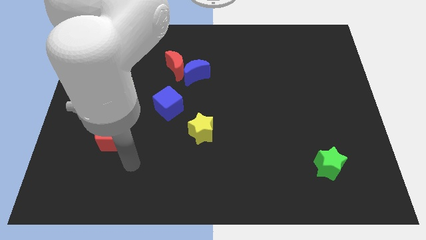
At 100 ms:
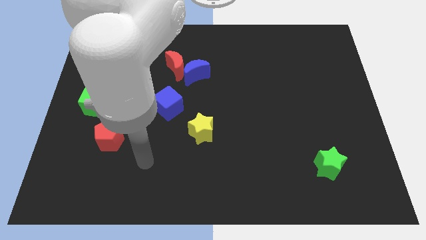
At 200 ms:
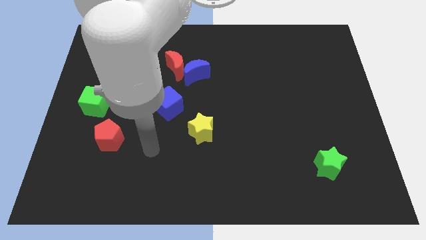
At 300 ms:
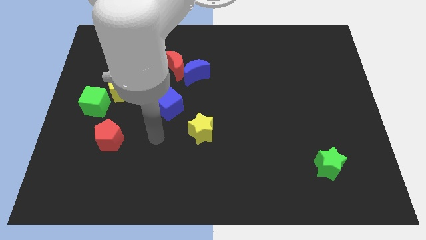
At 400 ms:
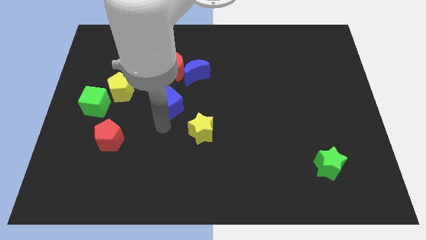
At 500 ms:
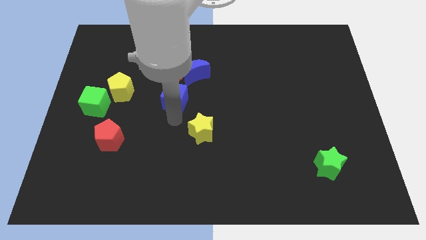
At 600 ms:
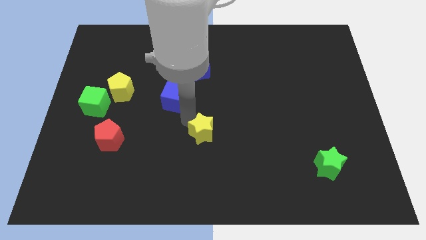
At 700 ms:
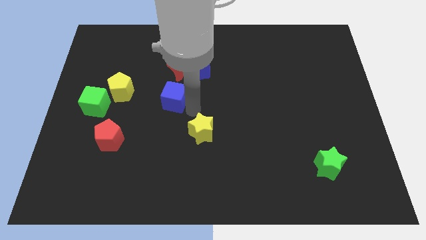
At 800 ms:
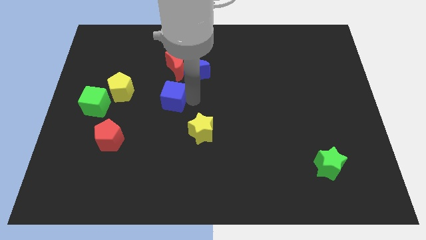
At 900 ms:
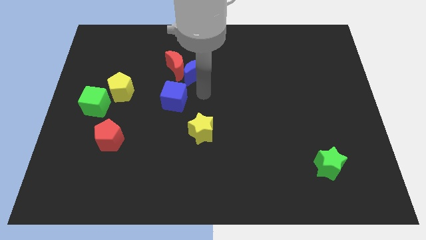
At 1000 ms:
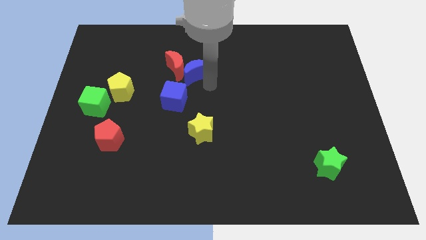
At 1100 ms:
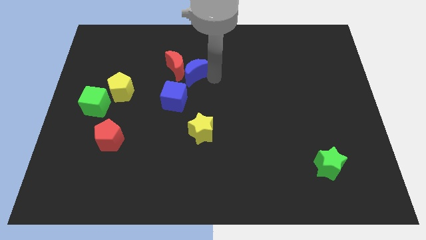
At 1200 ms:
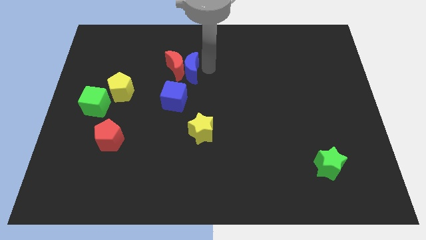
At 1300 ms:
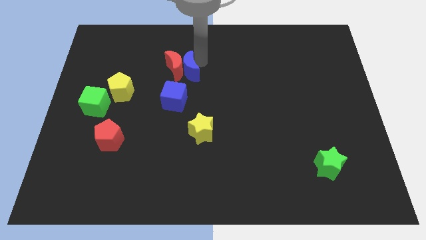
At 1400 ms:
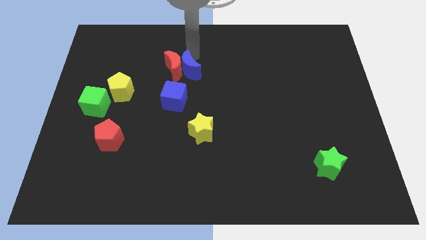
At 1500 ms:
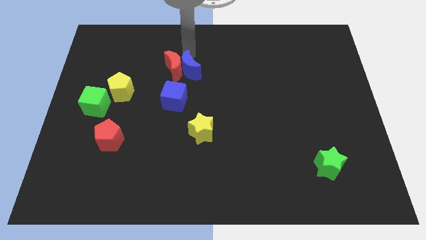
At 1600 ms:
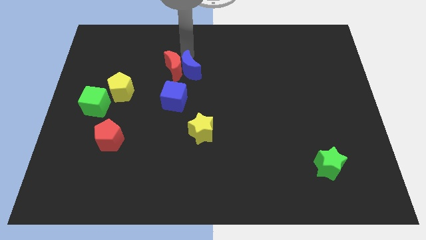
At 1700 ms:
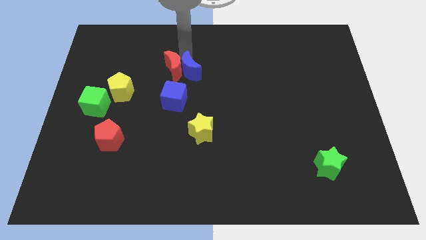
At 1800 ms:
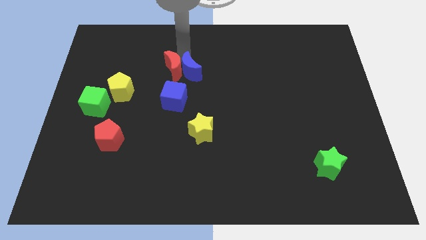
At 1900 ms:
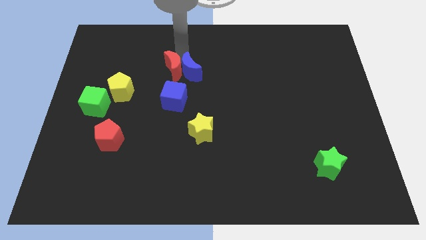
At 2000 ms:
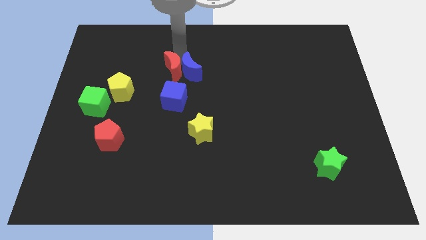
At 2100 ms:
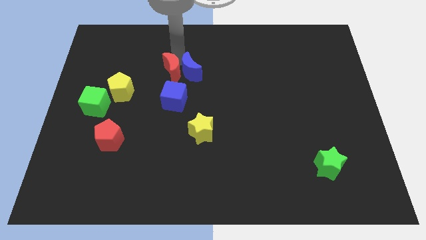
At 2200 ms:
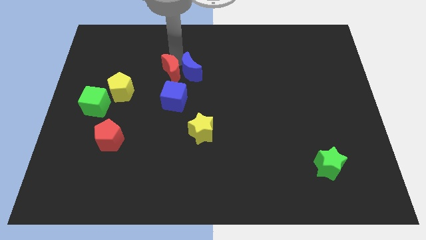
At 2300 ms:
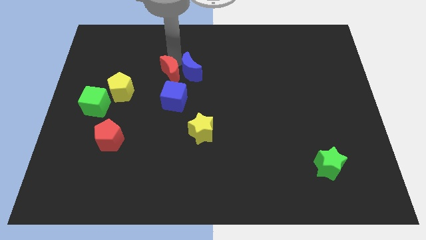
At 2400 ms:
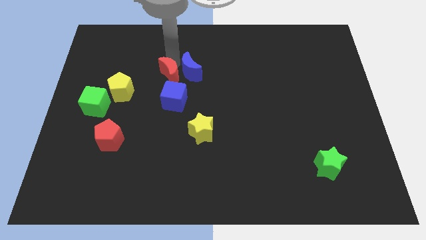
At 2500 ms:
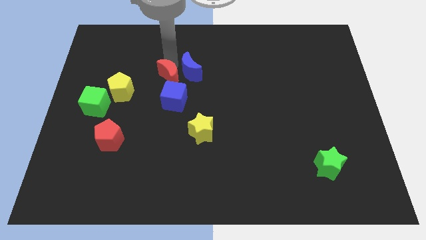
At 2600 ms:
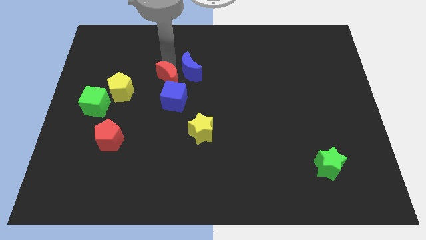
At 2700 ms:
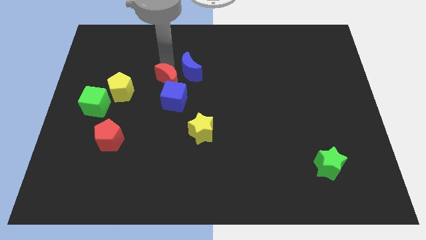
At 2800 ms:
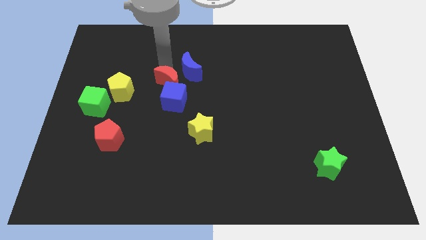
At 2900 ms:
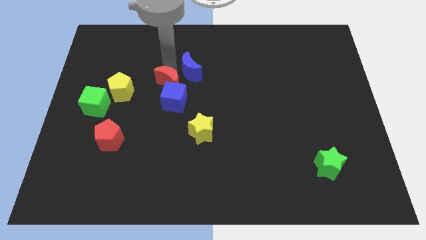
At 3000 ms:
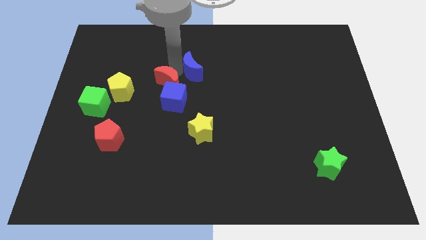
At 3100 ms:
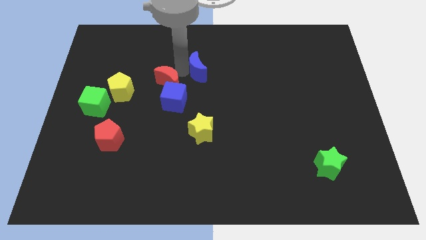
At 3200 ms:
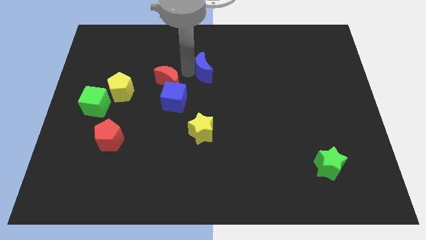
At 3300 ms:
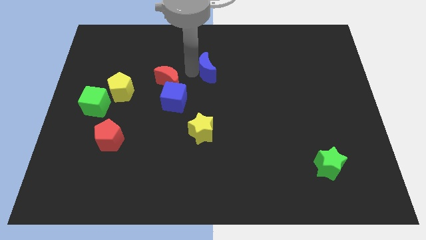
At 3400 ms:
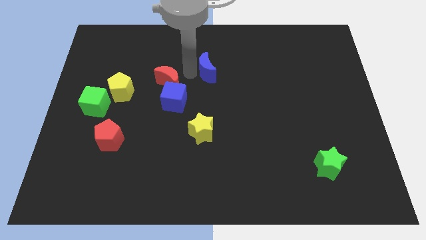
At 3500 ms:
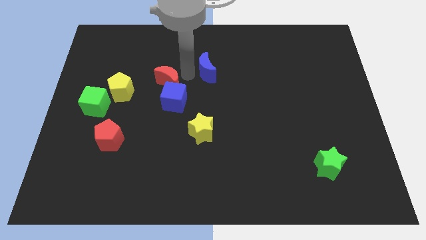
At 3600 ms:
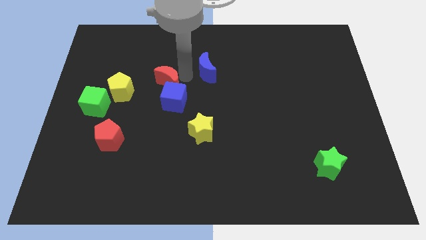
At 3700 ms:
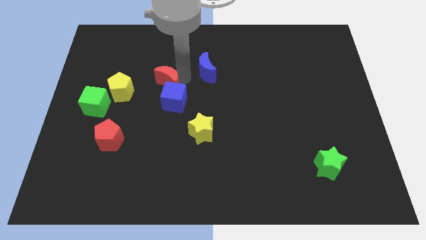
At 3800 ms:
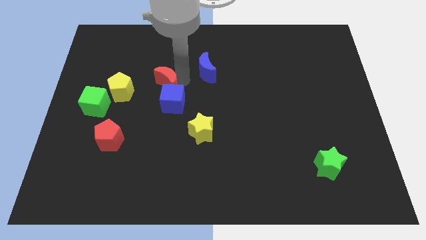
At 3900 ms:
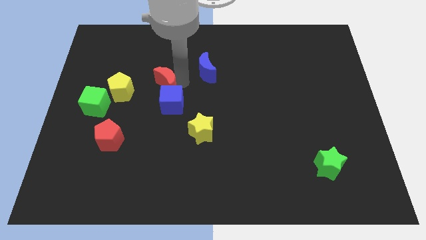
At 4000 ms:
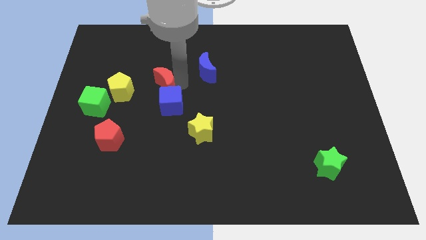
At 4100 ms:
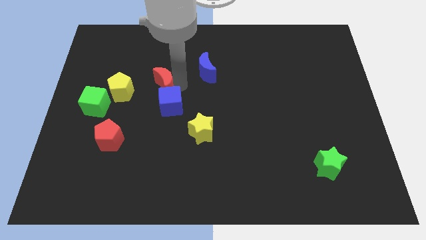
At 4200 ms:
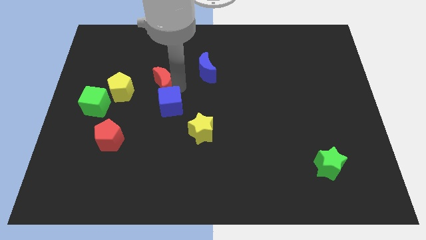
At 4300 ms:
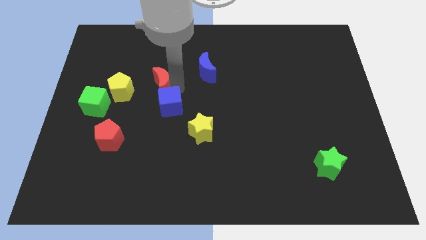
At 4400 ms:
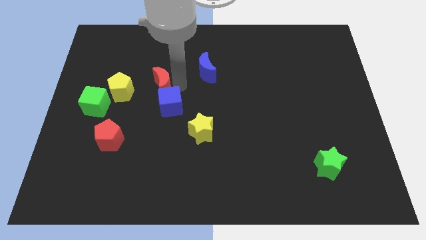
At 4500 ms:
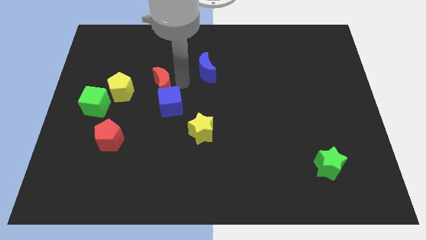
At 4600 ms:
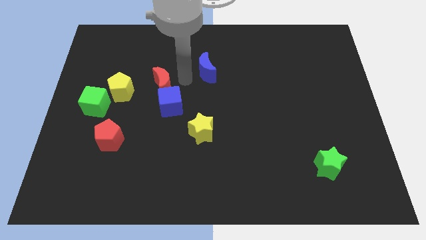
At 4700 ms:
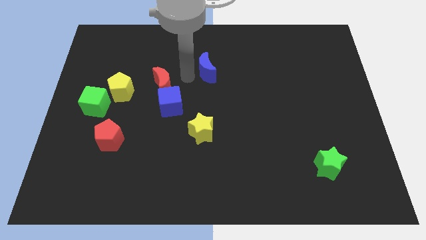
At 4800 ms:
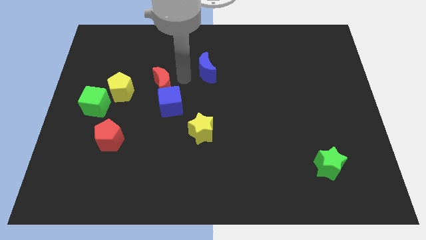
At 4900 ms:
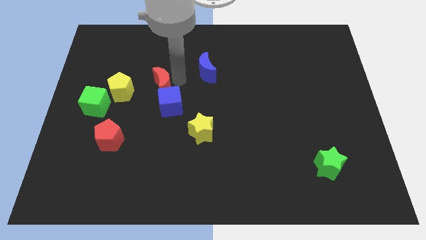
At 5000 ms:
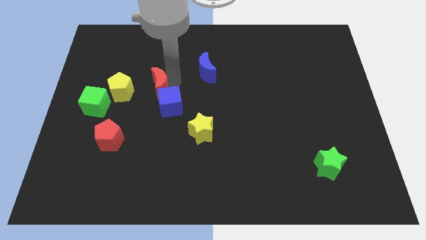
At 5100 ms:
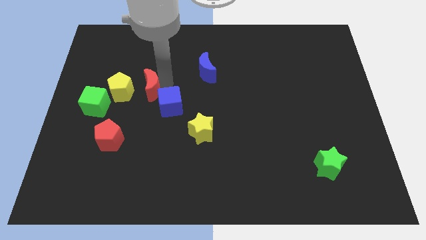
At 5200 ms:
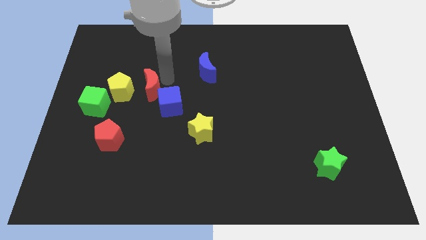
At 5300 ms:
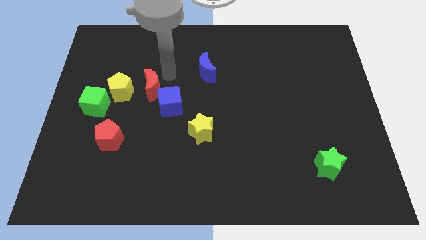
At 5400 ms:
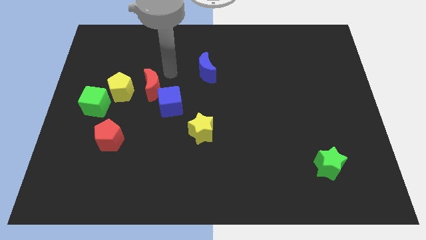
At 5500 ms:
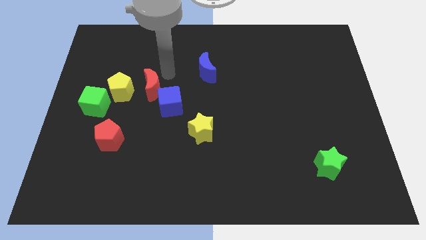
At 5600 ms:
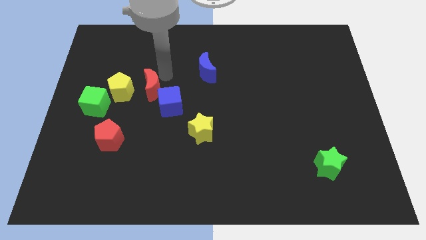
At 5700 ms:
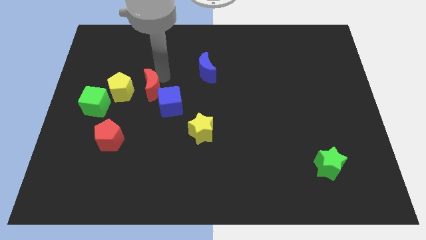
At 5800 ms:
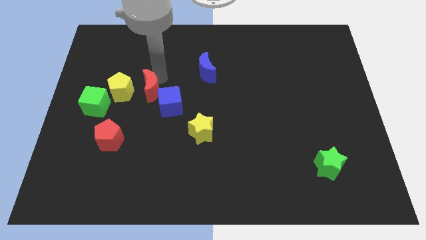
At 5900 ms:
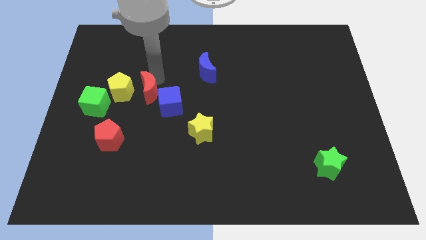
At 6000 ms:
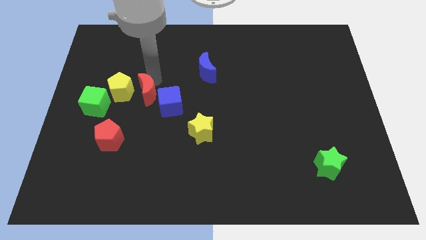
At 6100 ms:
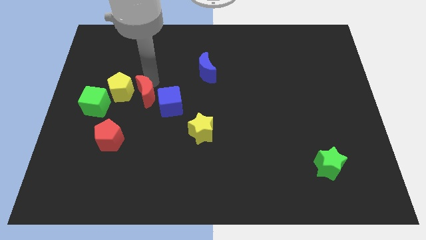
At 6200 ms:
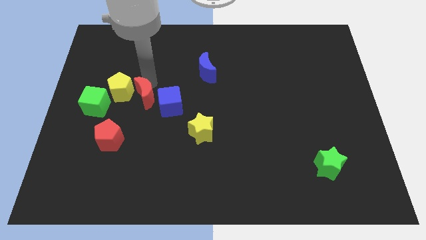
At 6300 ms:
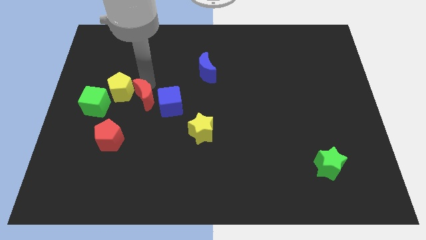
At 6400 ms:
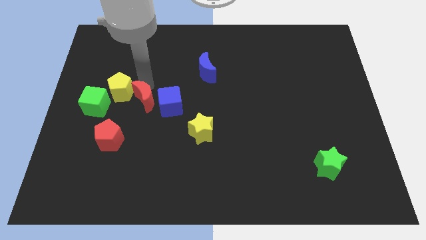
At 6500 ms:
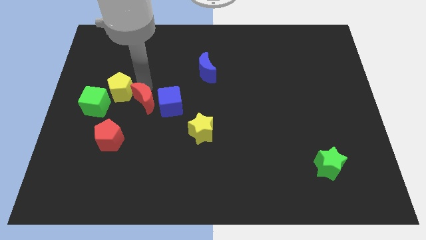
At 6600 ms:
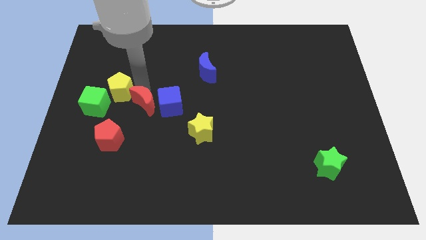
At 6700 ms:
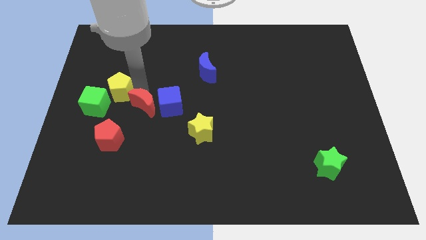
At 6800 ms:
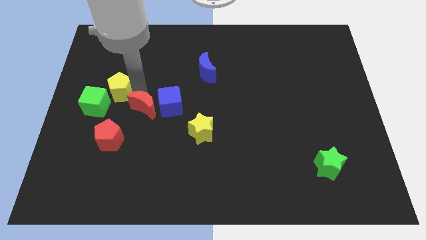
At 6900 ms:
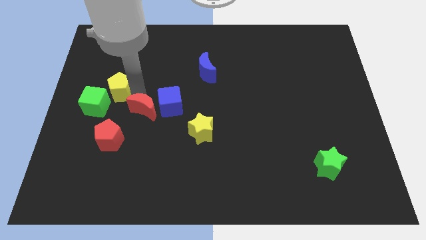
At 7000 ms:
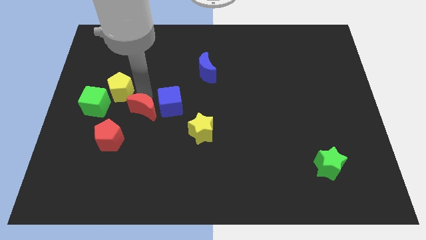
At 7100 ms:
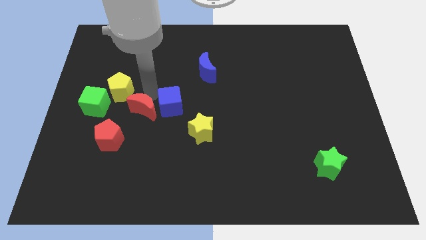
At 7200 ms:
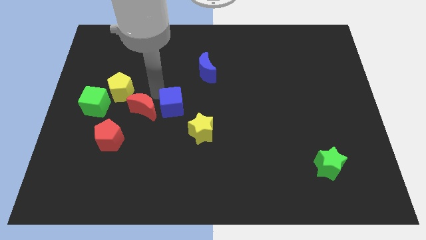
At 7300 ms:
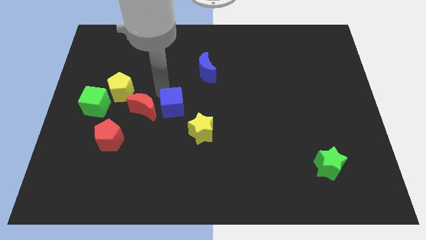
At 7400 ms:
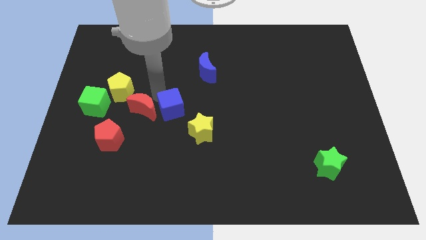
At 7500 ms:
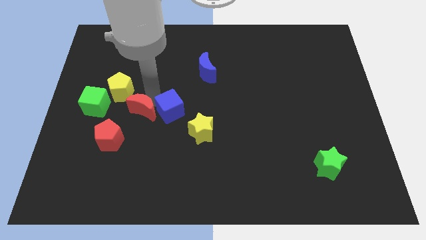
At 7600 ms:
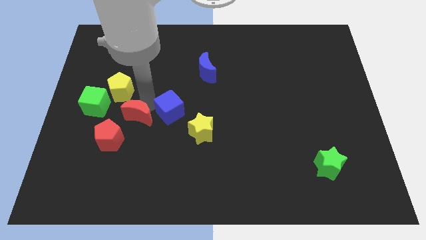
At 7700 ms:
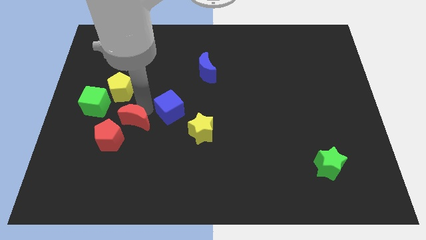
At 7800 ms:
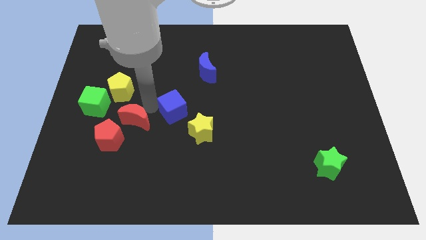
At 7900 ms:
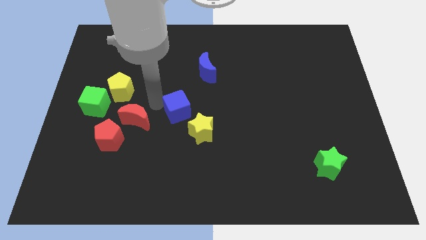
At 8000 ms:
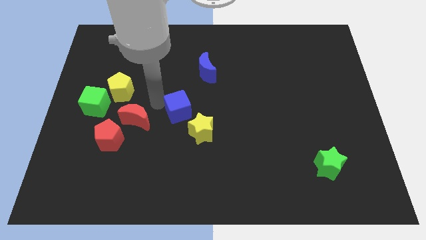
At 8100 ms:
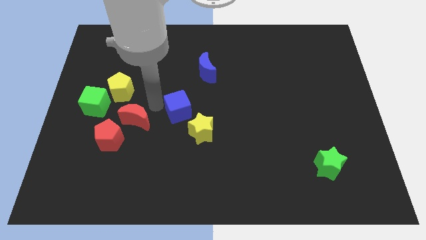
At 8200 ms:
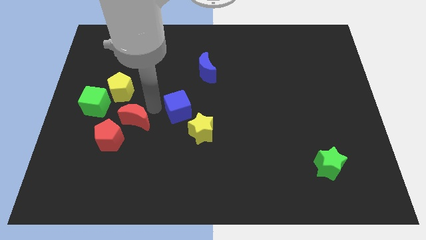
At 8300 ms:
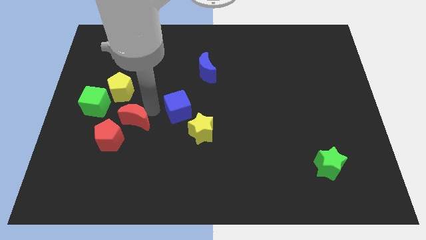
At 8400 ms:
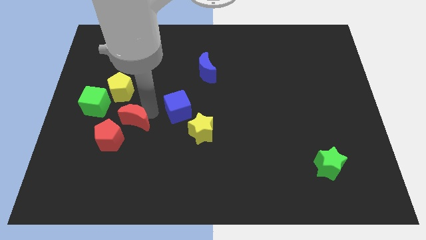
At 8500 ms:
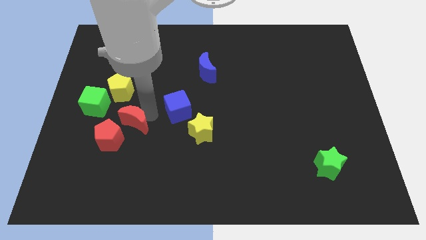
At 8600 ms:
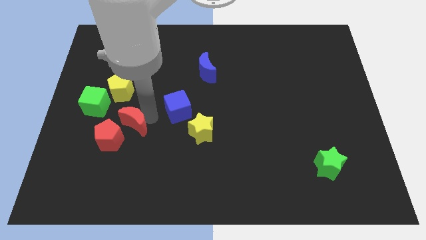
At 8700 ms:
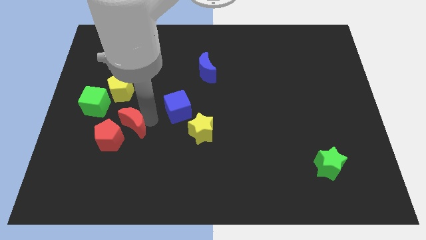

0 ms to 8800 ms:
push the red moon close to the red pentagon
